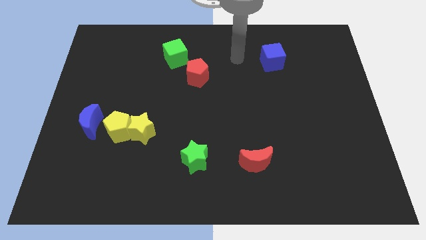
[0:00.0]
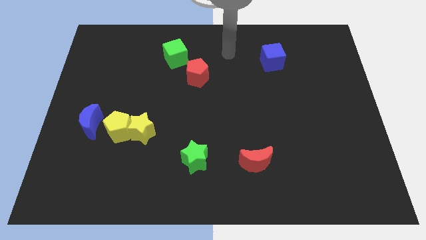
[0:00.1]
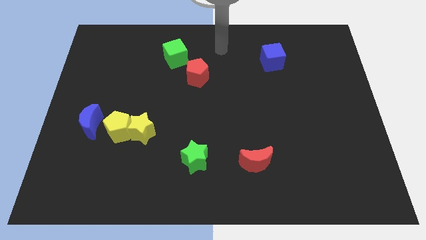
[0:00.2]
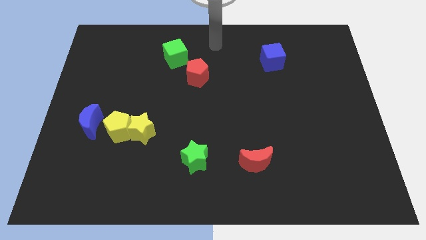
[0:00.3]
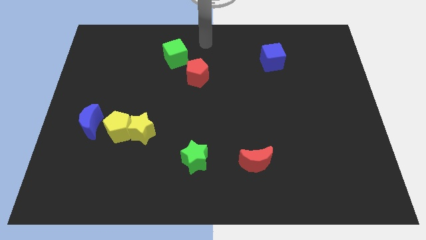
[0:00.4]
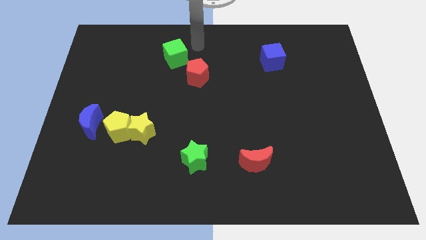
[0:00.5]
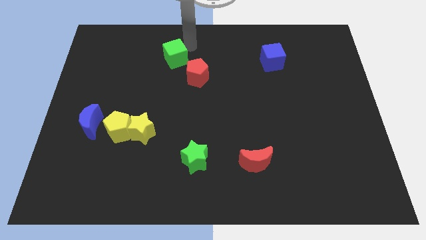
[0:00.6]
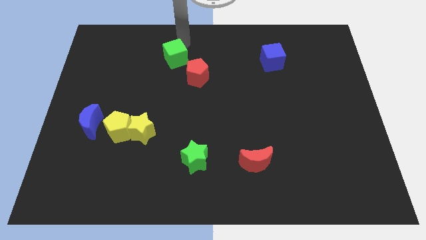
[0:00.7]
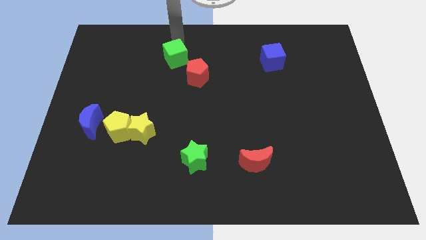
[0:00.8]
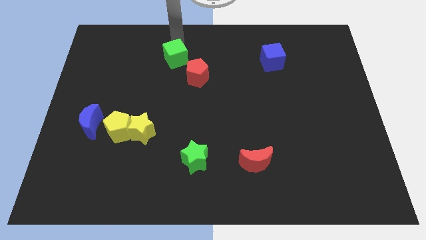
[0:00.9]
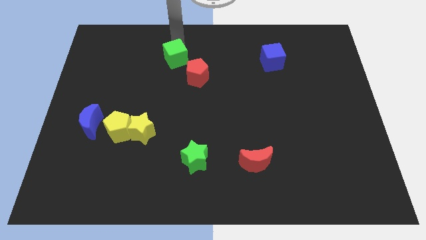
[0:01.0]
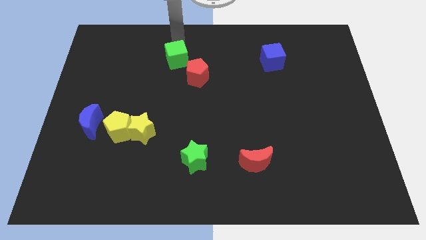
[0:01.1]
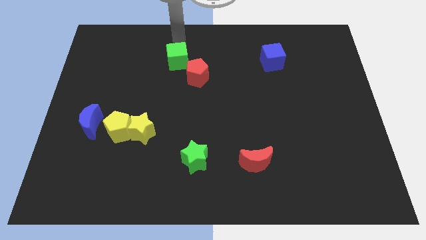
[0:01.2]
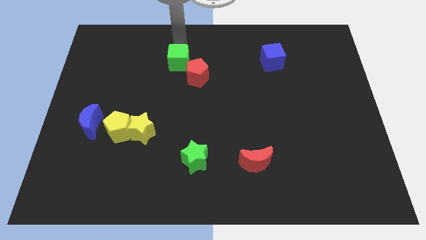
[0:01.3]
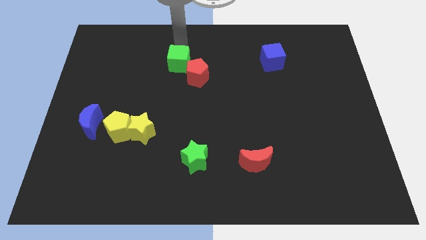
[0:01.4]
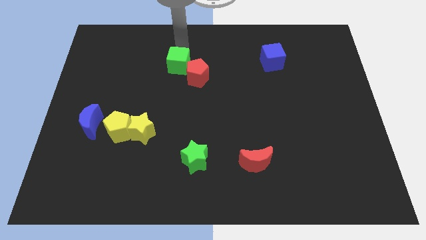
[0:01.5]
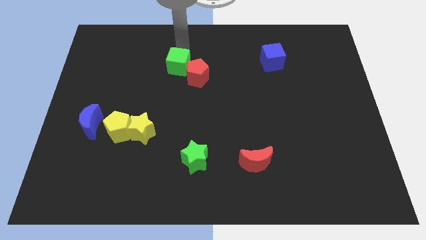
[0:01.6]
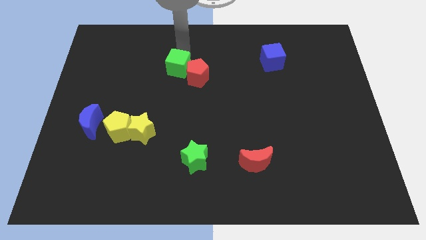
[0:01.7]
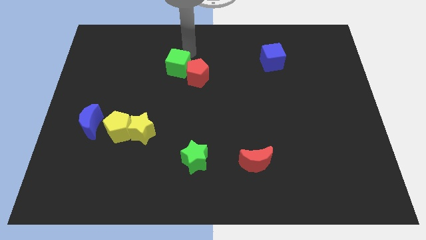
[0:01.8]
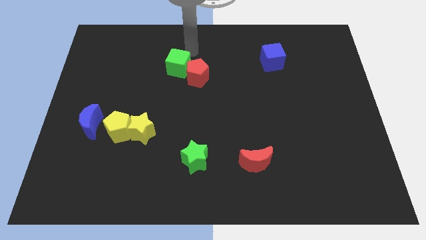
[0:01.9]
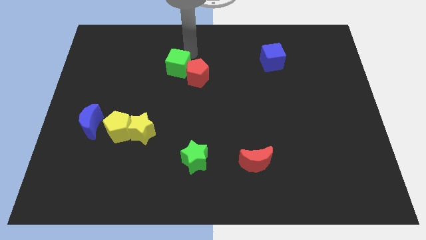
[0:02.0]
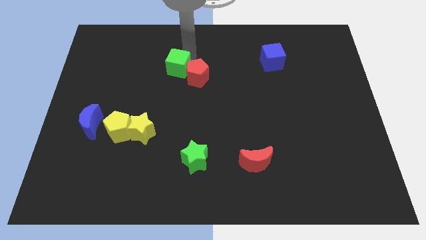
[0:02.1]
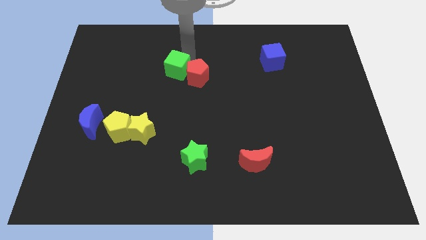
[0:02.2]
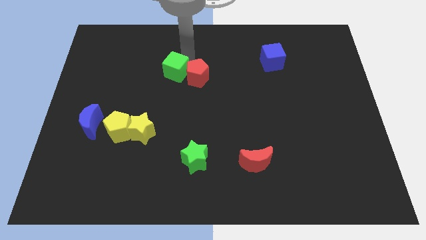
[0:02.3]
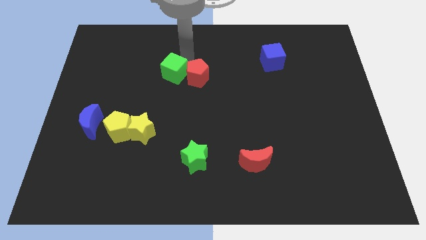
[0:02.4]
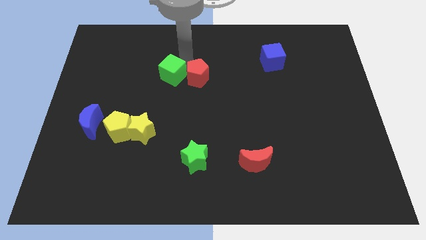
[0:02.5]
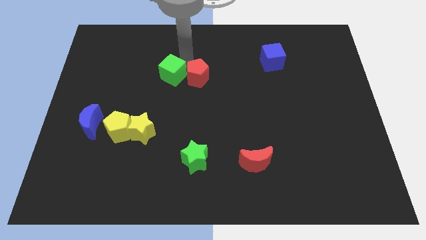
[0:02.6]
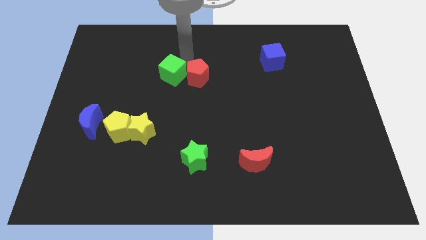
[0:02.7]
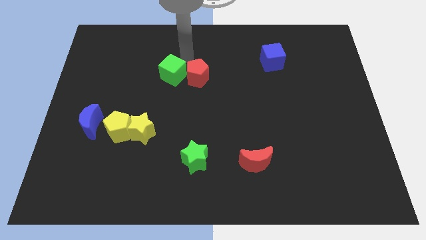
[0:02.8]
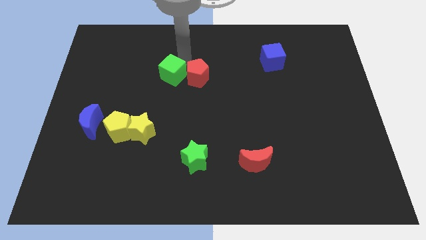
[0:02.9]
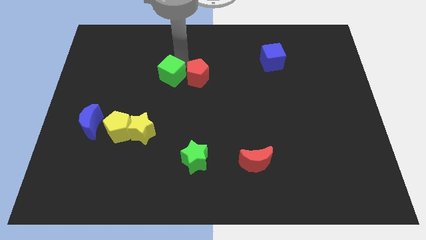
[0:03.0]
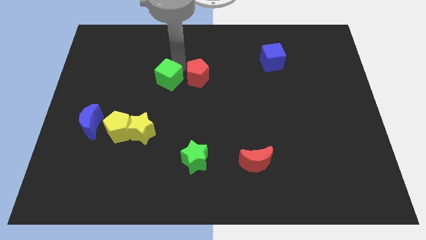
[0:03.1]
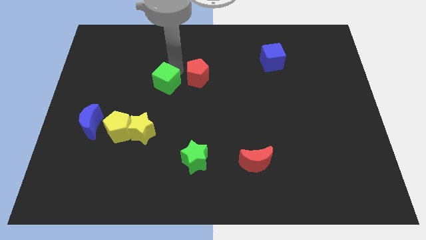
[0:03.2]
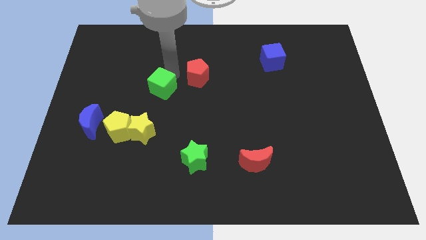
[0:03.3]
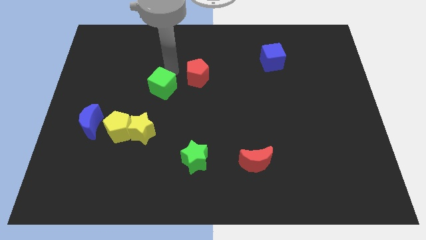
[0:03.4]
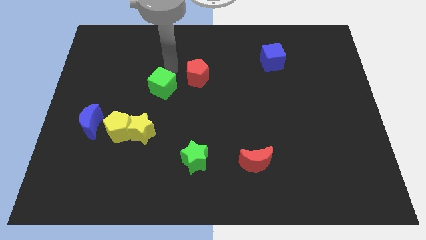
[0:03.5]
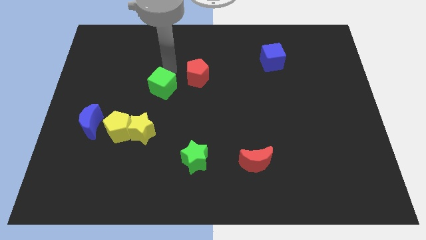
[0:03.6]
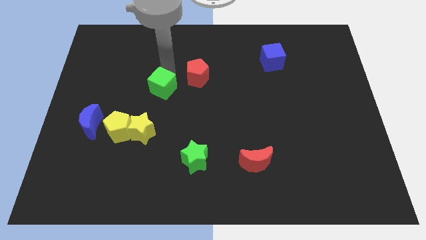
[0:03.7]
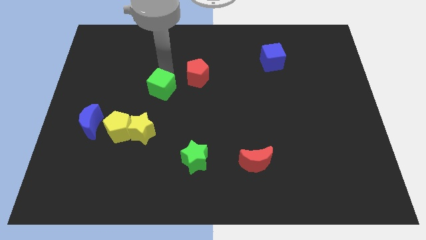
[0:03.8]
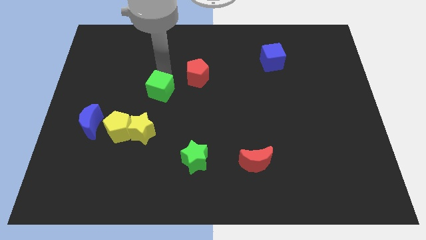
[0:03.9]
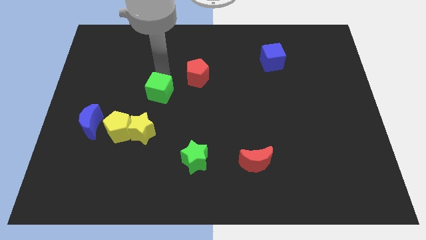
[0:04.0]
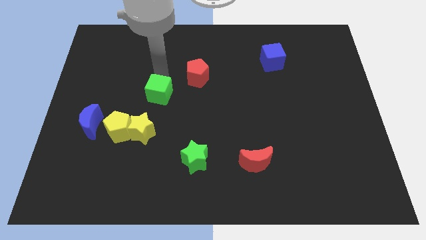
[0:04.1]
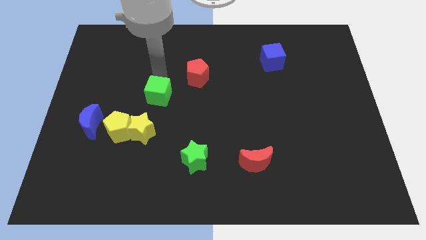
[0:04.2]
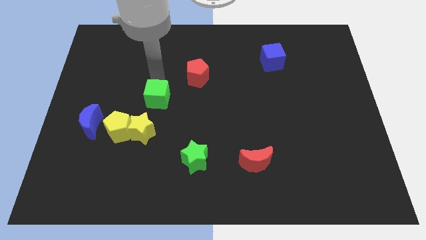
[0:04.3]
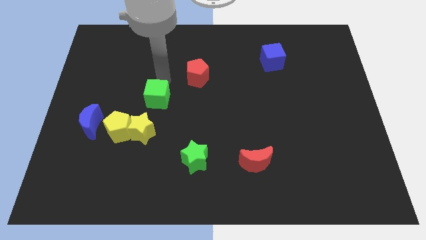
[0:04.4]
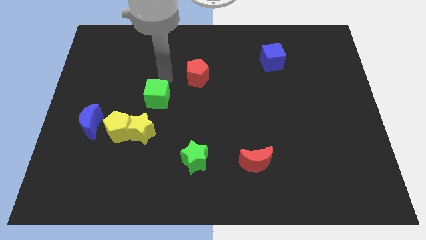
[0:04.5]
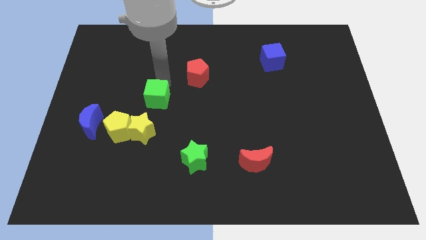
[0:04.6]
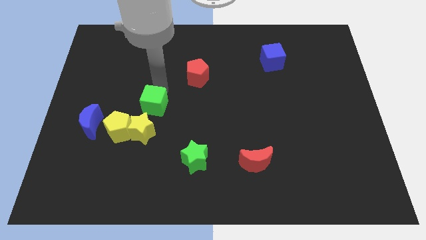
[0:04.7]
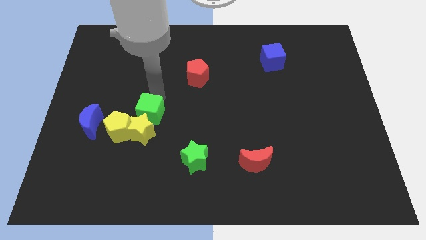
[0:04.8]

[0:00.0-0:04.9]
move the green cube towards the yellow star

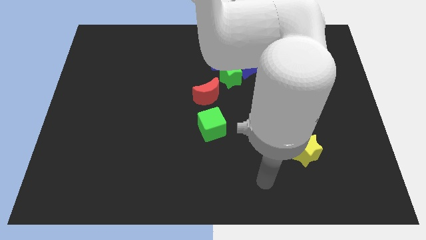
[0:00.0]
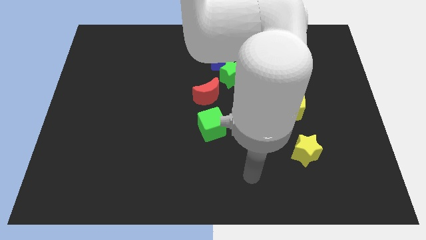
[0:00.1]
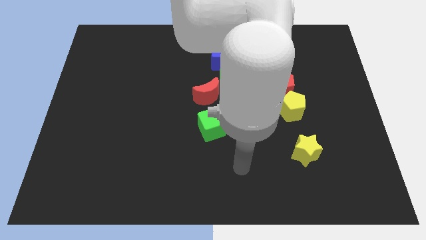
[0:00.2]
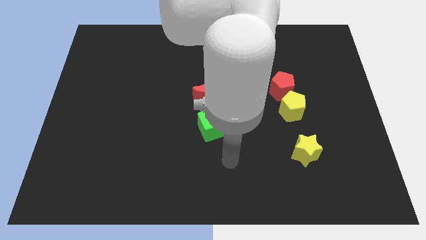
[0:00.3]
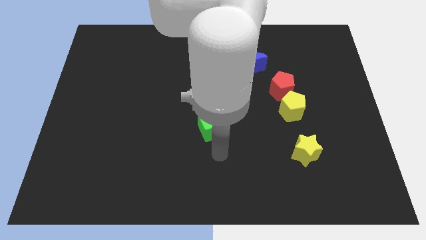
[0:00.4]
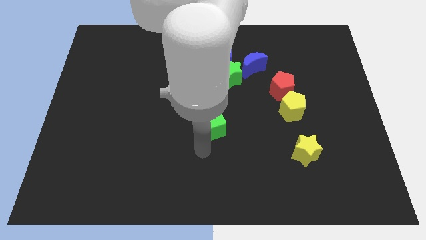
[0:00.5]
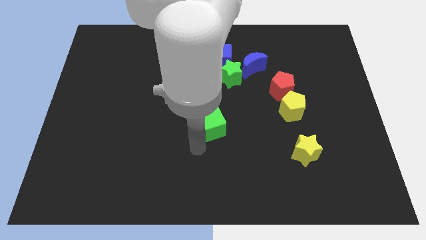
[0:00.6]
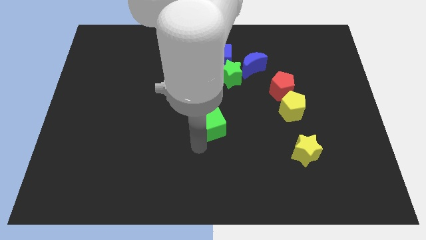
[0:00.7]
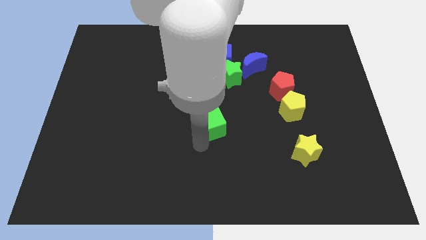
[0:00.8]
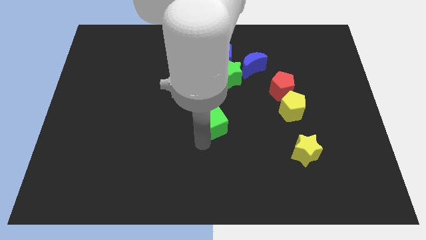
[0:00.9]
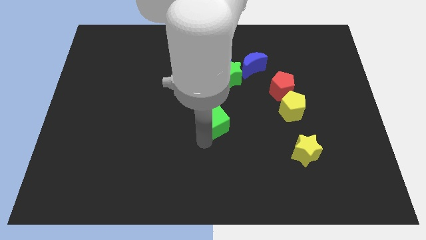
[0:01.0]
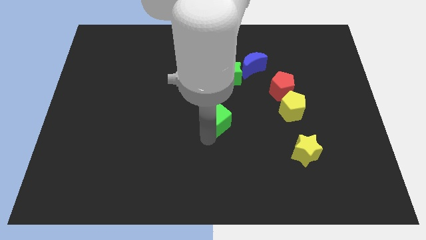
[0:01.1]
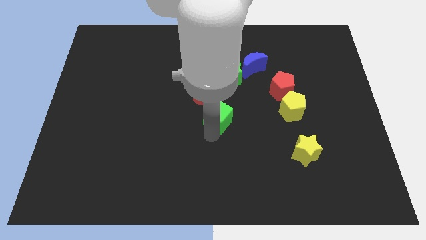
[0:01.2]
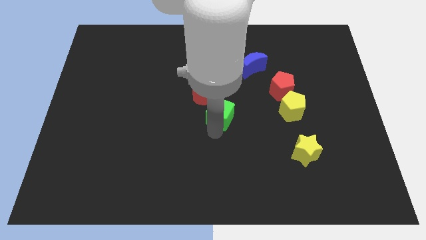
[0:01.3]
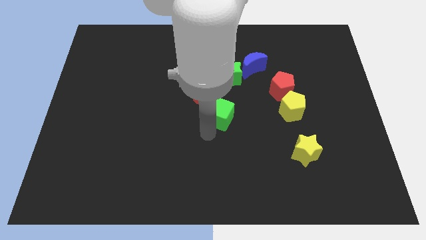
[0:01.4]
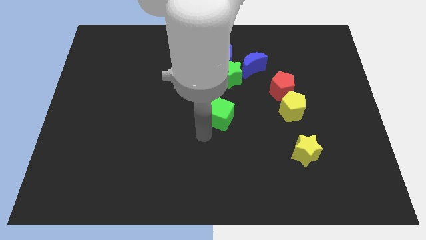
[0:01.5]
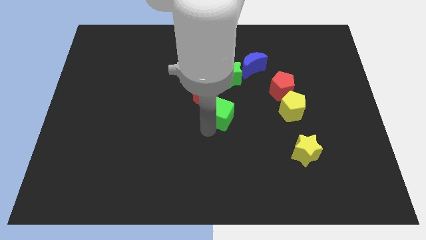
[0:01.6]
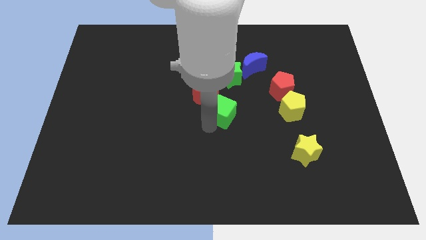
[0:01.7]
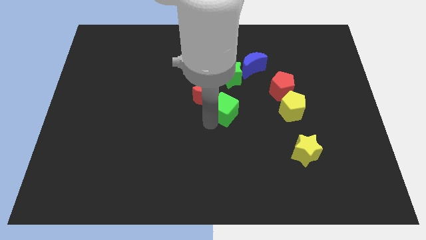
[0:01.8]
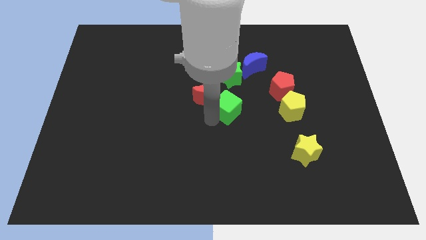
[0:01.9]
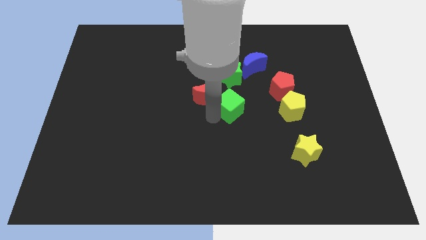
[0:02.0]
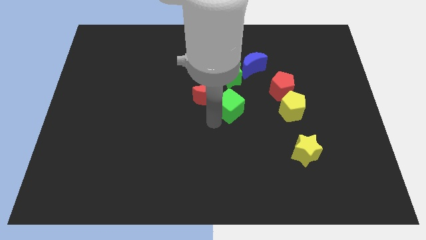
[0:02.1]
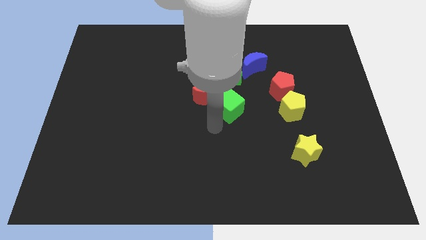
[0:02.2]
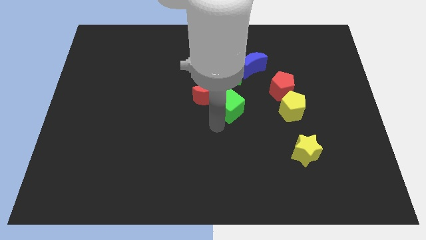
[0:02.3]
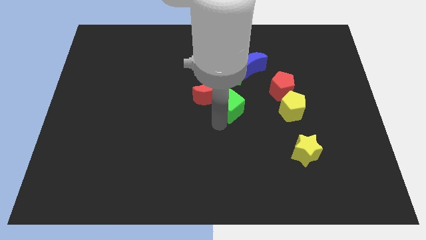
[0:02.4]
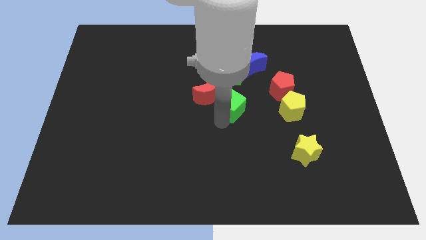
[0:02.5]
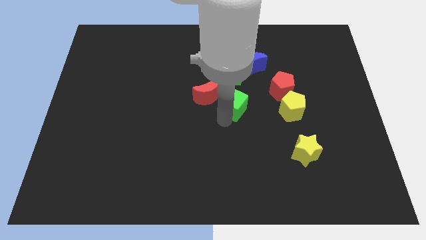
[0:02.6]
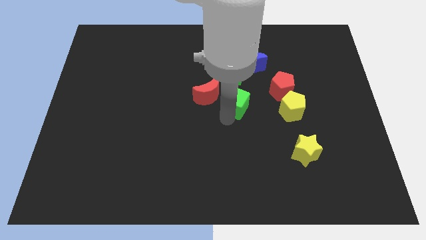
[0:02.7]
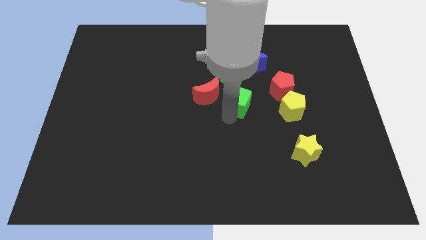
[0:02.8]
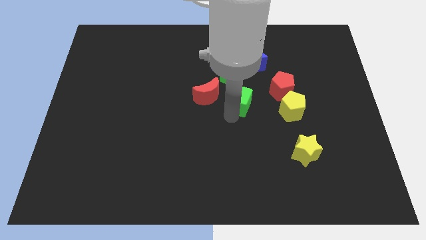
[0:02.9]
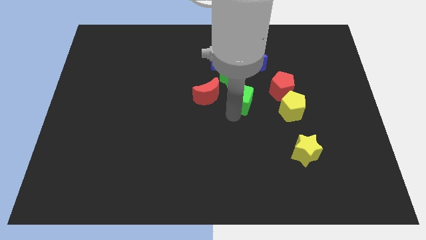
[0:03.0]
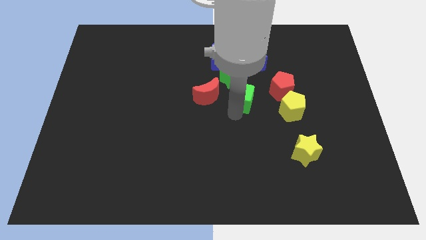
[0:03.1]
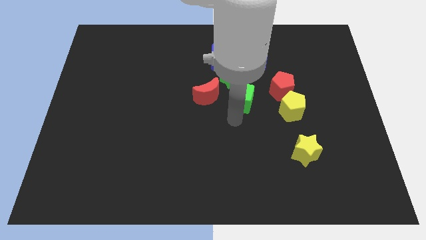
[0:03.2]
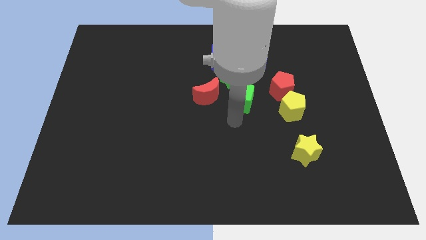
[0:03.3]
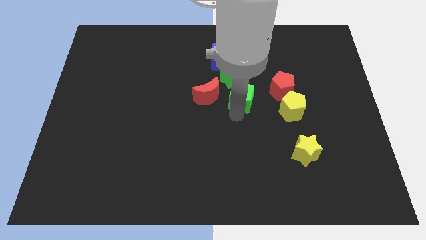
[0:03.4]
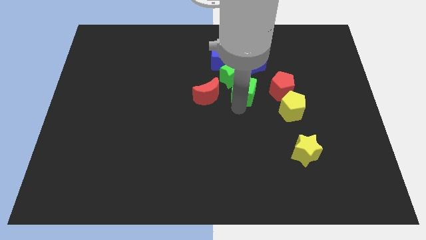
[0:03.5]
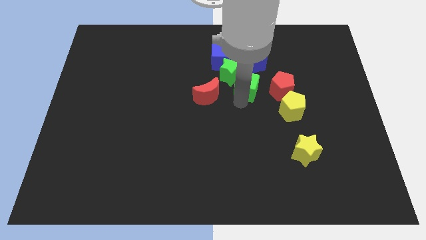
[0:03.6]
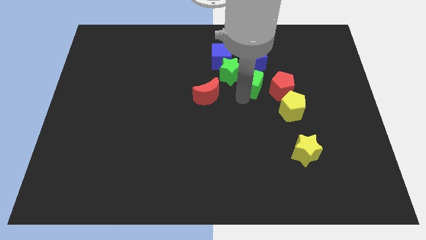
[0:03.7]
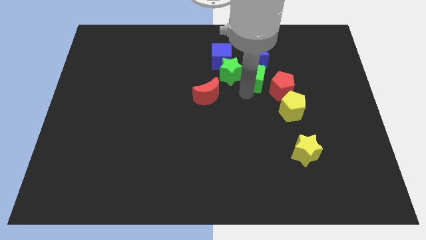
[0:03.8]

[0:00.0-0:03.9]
put the green cube towards the blue moon
